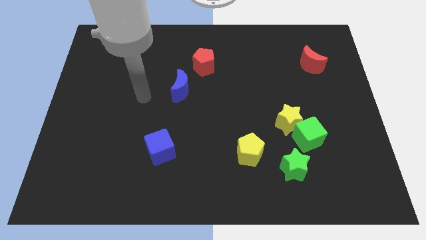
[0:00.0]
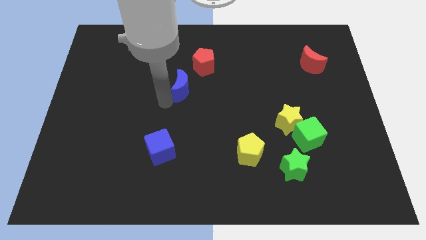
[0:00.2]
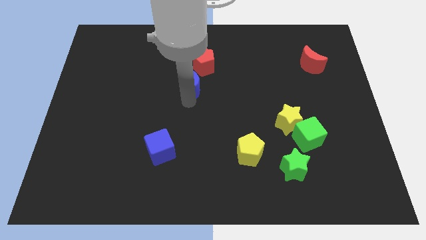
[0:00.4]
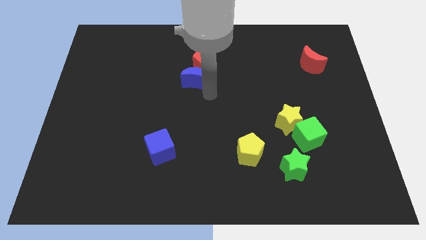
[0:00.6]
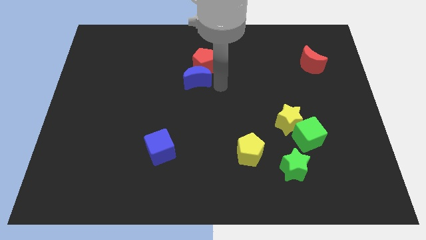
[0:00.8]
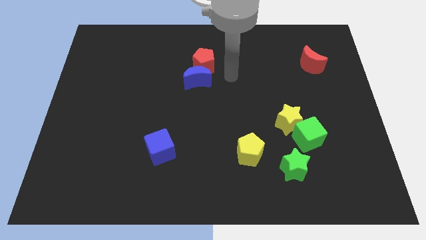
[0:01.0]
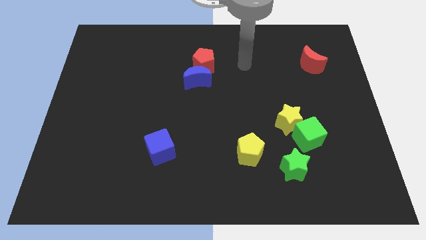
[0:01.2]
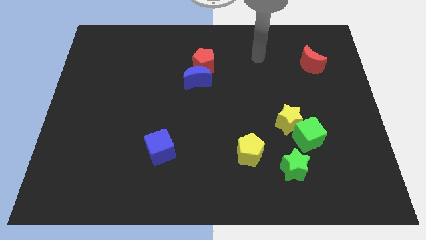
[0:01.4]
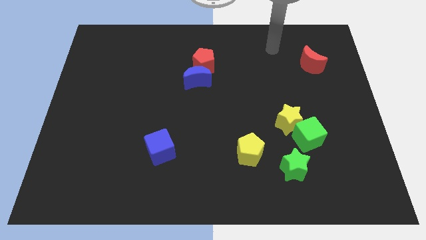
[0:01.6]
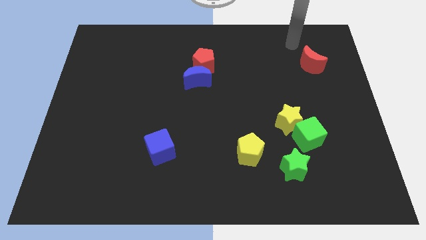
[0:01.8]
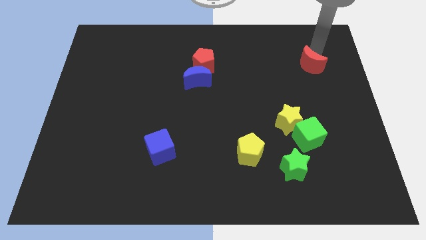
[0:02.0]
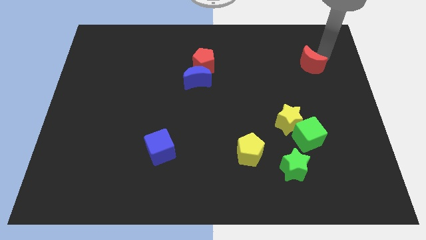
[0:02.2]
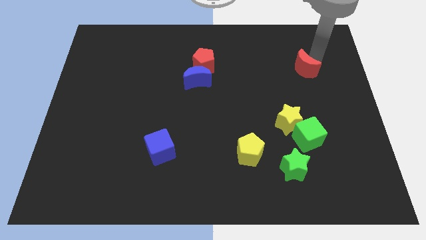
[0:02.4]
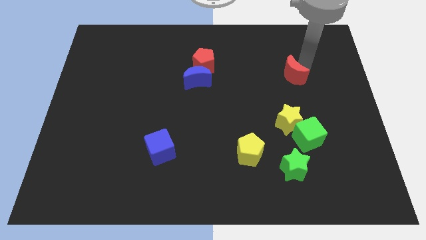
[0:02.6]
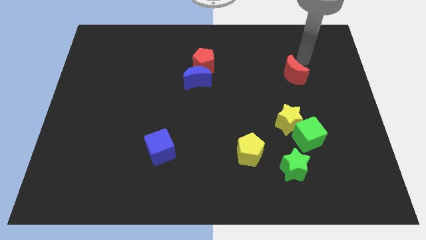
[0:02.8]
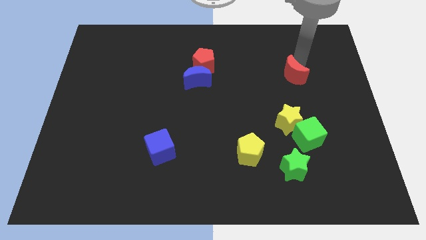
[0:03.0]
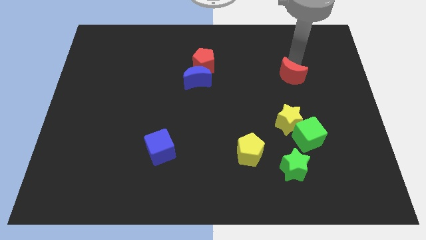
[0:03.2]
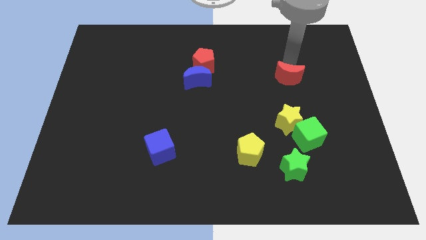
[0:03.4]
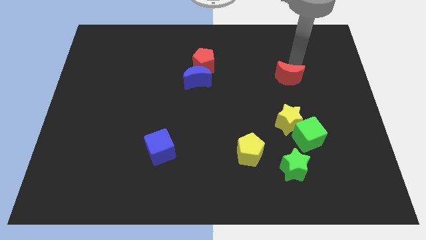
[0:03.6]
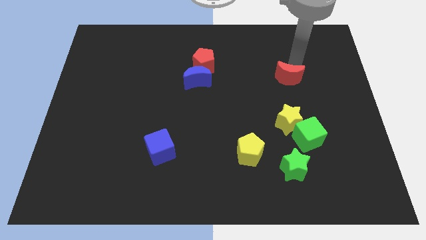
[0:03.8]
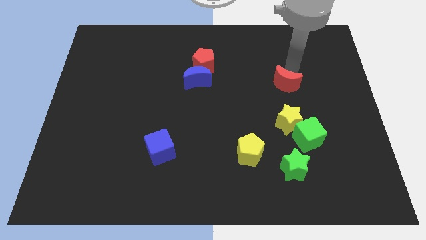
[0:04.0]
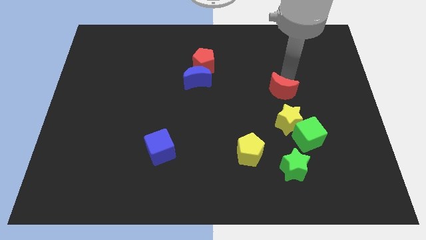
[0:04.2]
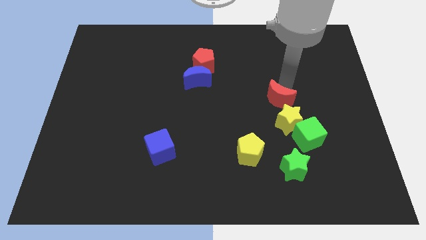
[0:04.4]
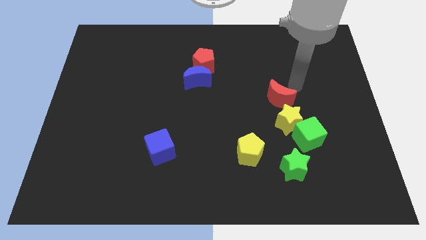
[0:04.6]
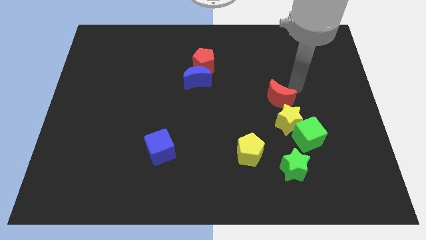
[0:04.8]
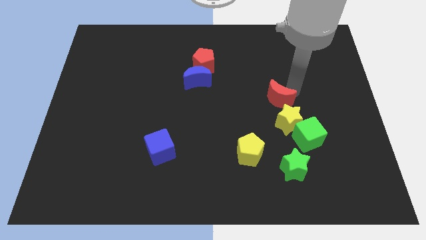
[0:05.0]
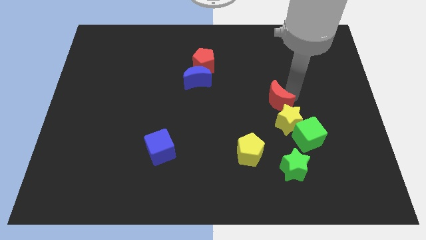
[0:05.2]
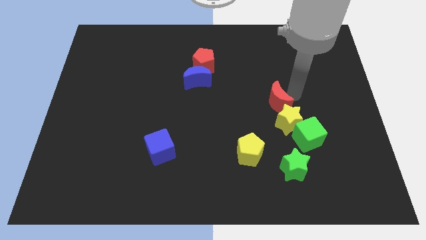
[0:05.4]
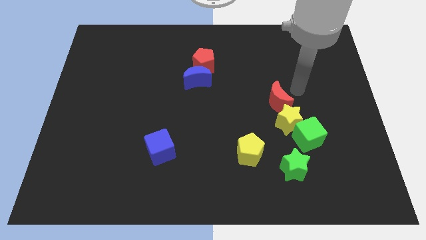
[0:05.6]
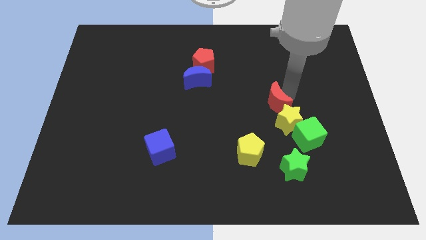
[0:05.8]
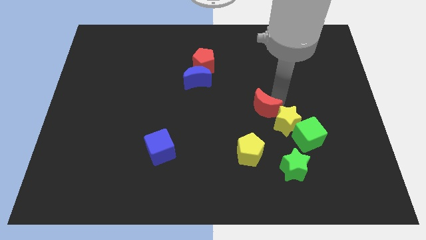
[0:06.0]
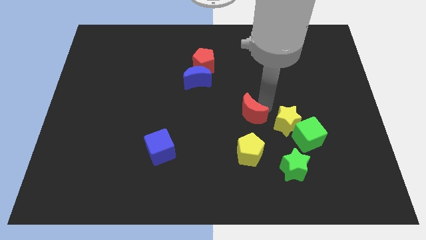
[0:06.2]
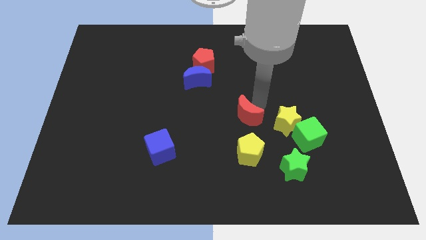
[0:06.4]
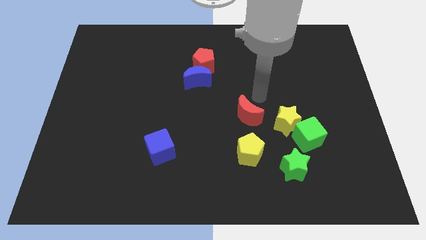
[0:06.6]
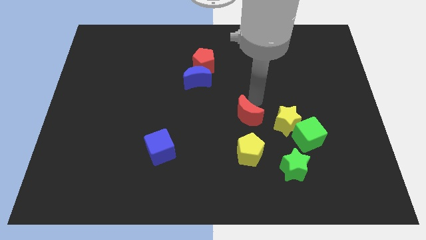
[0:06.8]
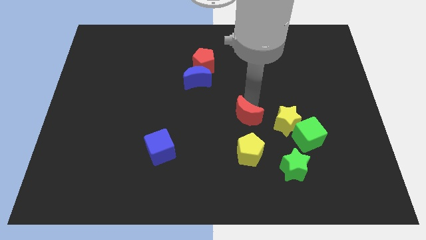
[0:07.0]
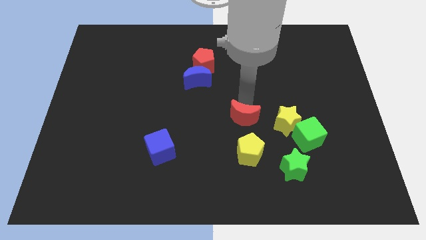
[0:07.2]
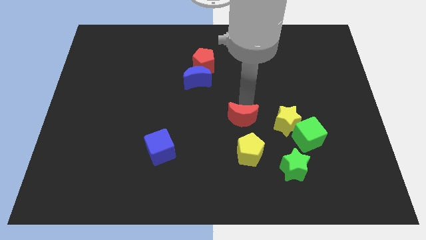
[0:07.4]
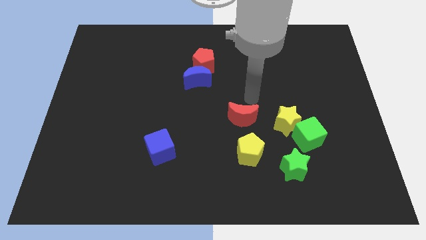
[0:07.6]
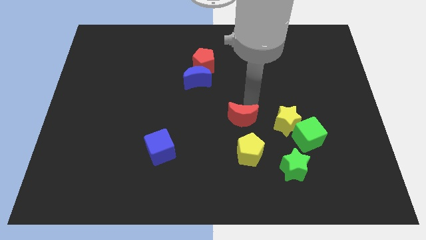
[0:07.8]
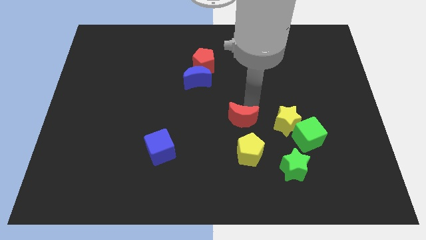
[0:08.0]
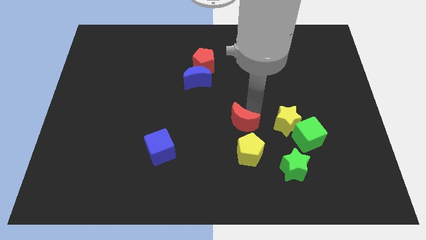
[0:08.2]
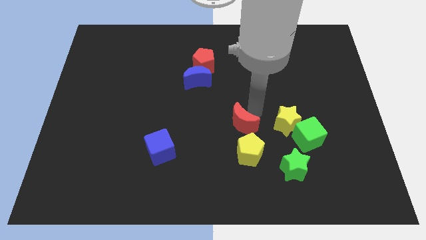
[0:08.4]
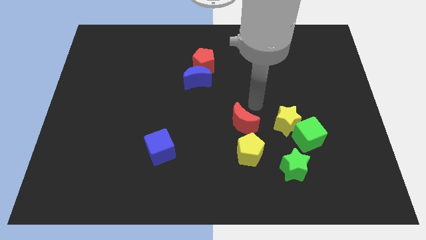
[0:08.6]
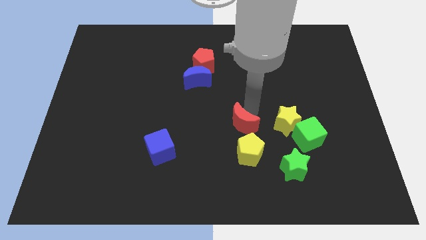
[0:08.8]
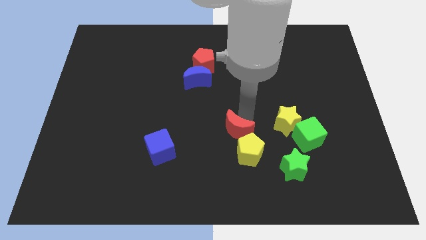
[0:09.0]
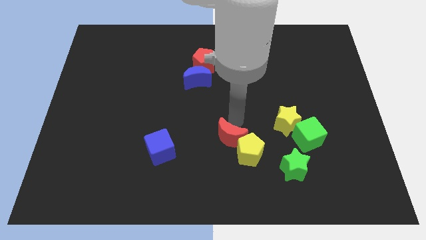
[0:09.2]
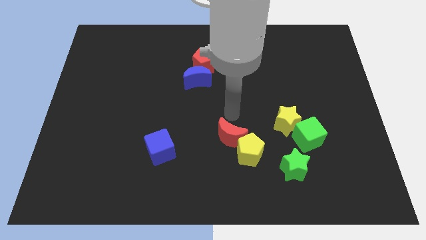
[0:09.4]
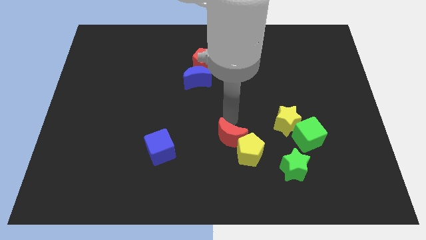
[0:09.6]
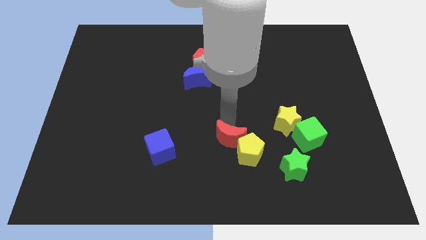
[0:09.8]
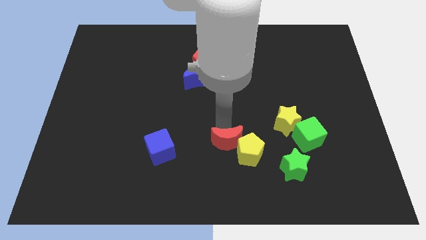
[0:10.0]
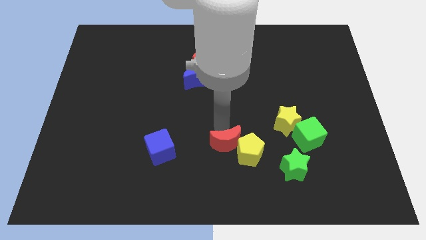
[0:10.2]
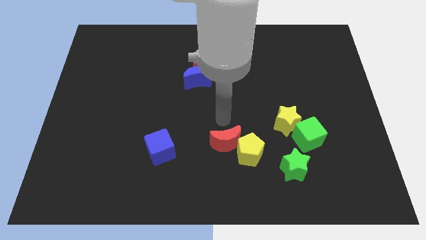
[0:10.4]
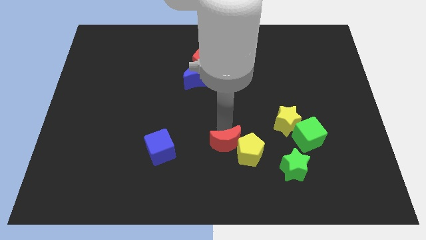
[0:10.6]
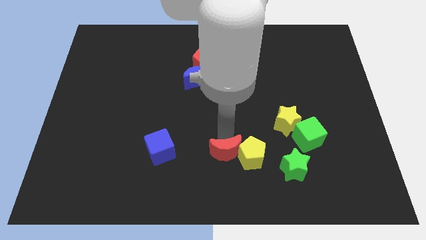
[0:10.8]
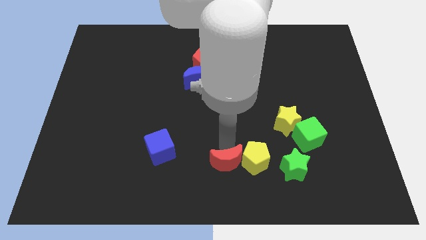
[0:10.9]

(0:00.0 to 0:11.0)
slide the red moon to the bottom side

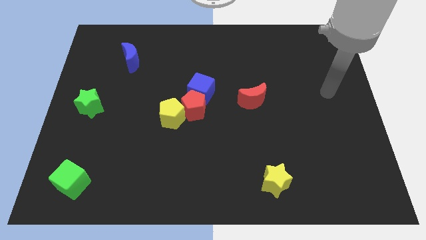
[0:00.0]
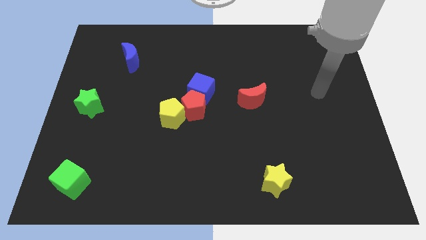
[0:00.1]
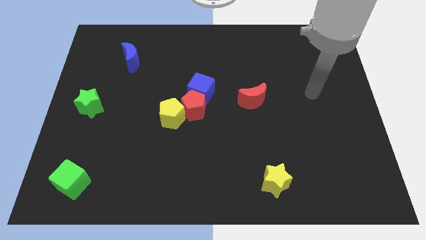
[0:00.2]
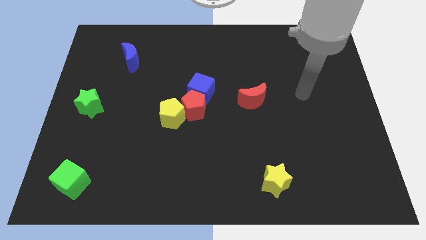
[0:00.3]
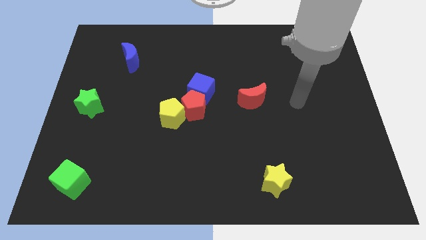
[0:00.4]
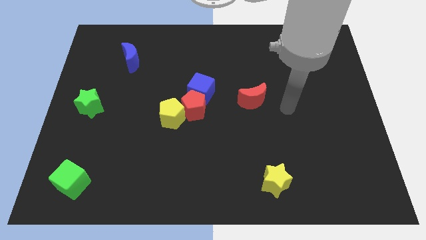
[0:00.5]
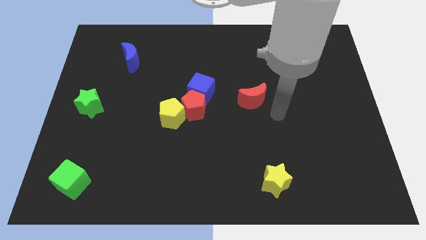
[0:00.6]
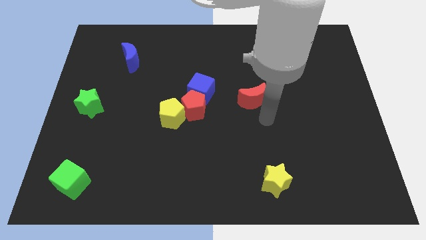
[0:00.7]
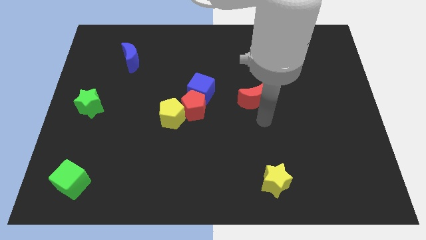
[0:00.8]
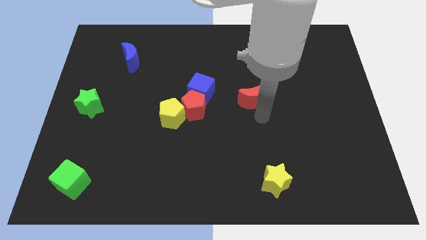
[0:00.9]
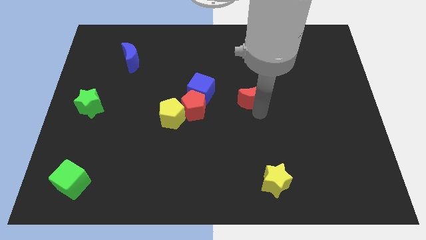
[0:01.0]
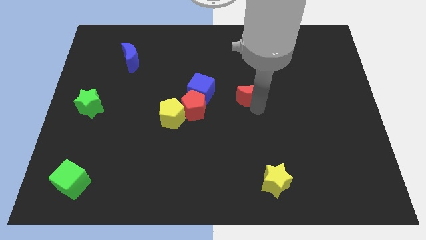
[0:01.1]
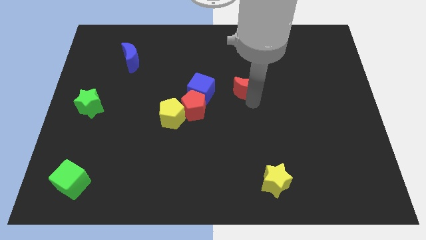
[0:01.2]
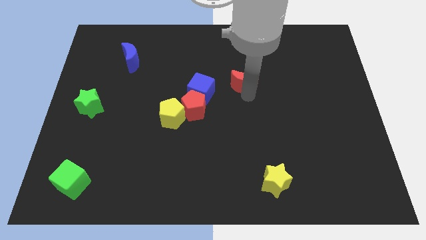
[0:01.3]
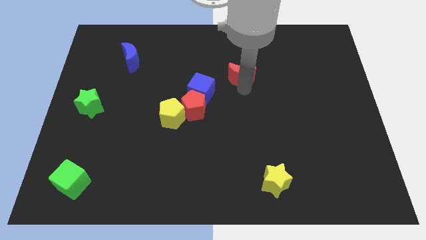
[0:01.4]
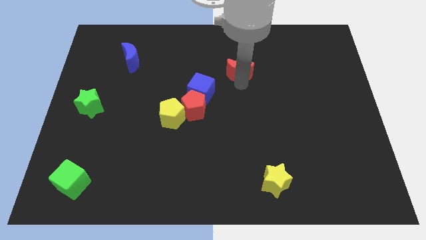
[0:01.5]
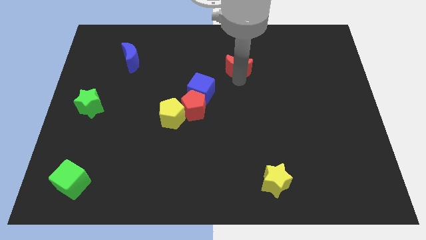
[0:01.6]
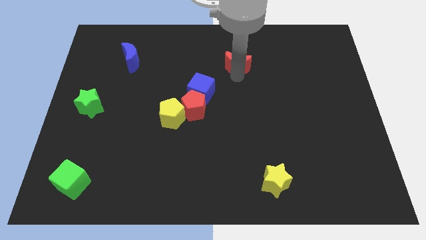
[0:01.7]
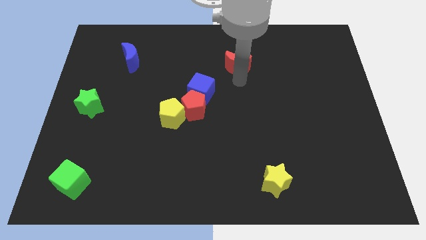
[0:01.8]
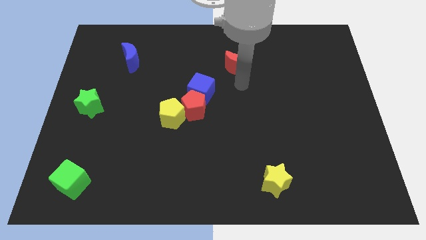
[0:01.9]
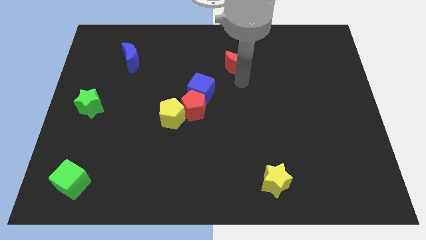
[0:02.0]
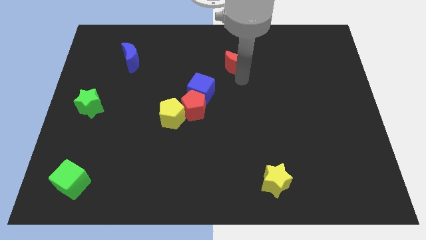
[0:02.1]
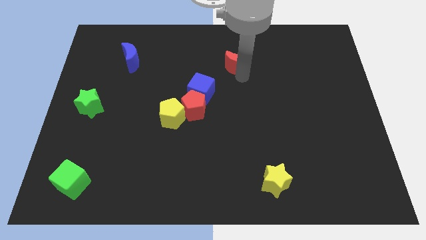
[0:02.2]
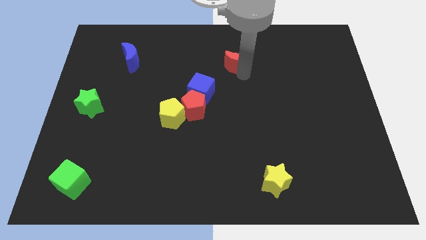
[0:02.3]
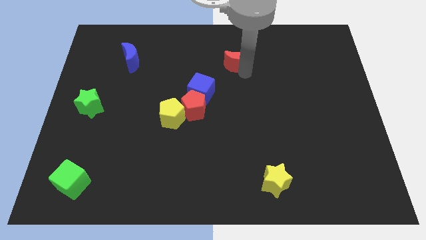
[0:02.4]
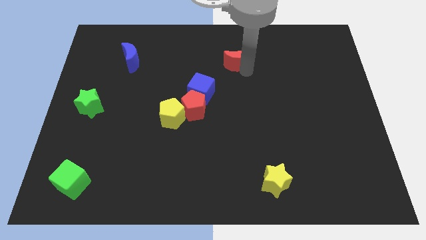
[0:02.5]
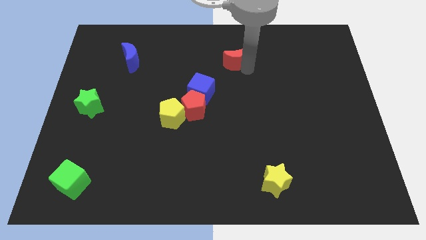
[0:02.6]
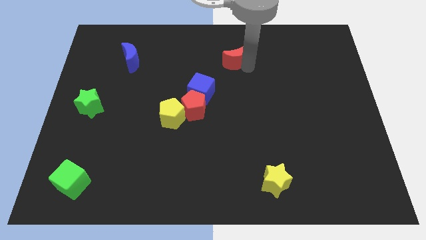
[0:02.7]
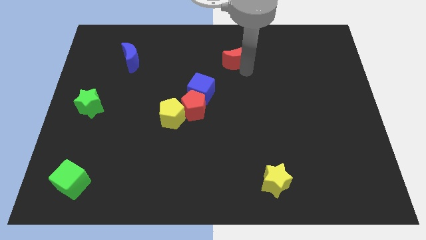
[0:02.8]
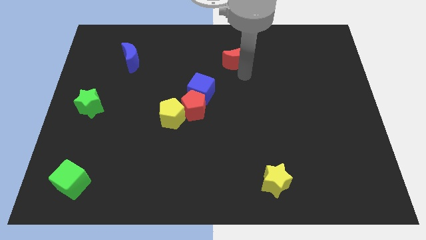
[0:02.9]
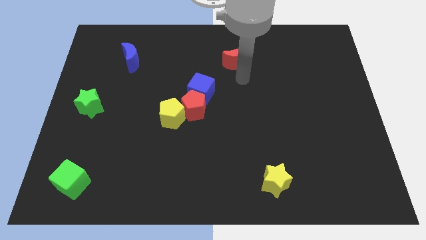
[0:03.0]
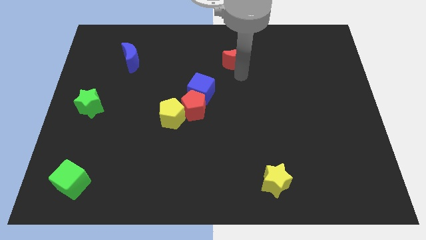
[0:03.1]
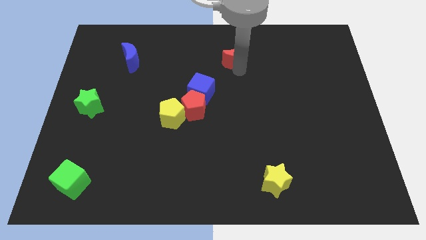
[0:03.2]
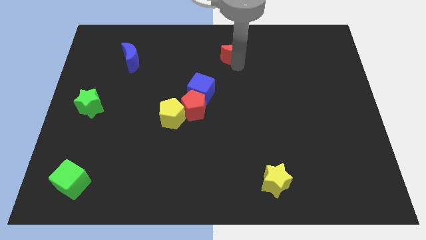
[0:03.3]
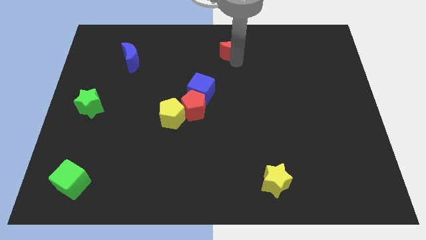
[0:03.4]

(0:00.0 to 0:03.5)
move the red moon to the top
